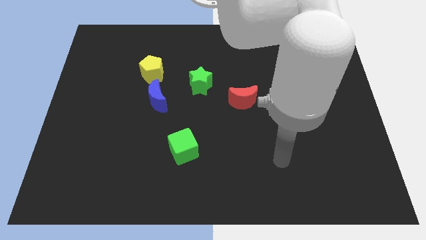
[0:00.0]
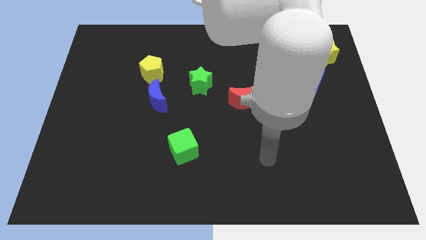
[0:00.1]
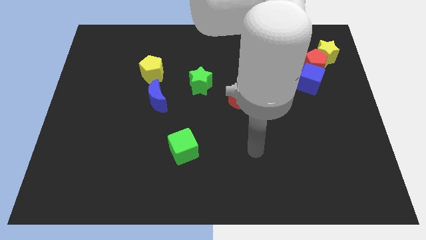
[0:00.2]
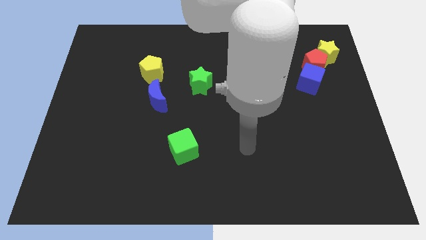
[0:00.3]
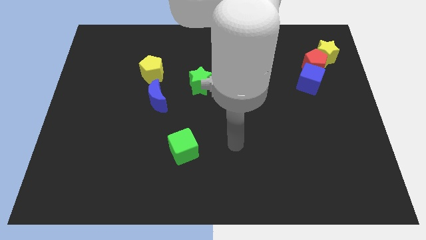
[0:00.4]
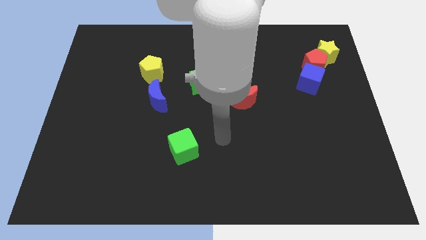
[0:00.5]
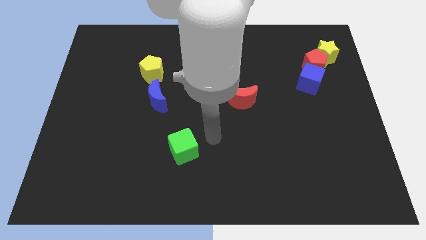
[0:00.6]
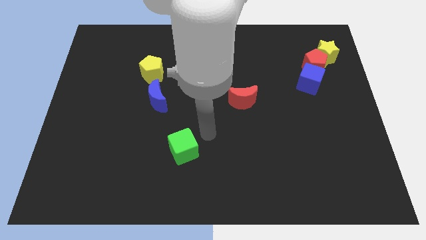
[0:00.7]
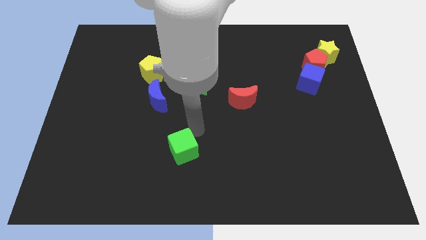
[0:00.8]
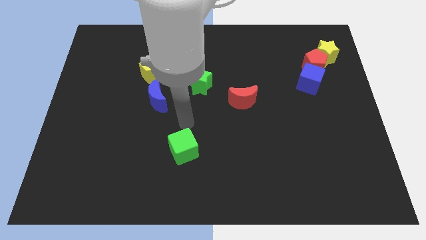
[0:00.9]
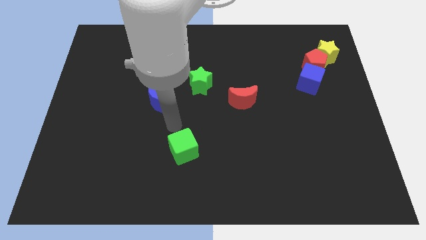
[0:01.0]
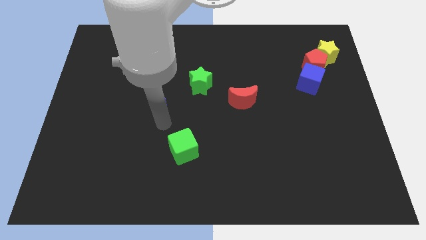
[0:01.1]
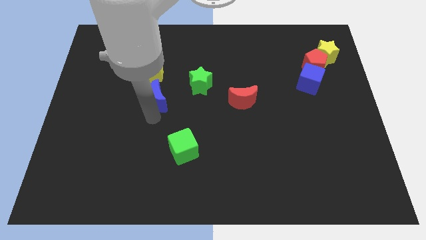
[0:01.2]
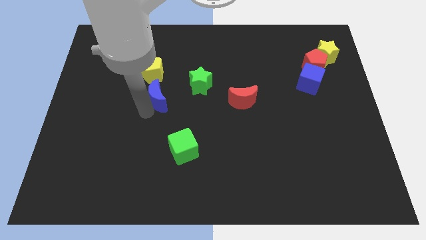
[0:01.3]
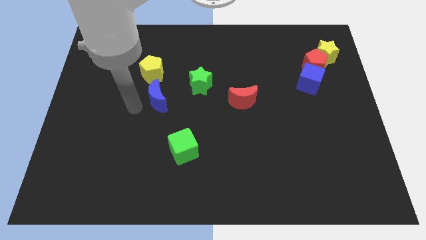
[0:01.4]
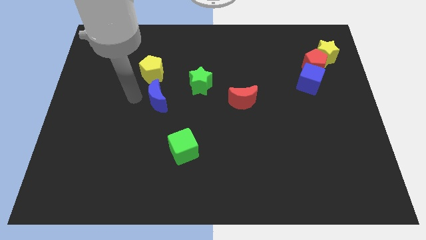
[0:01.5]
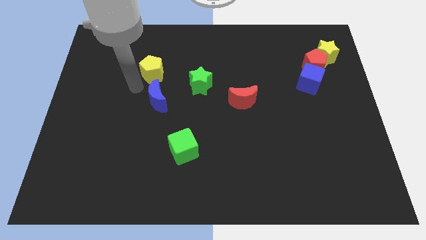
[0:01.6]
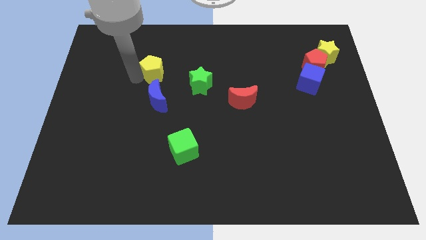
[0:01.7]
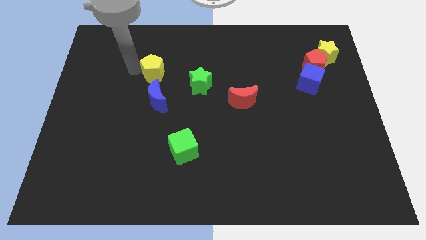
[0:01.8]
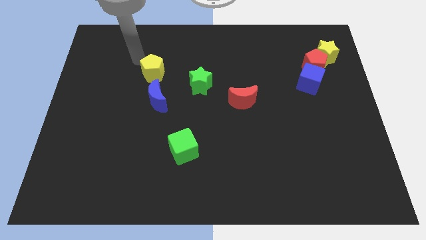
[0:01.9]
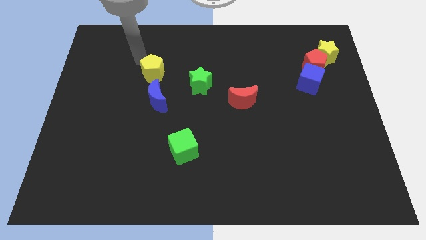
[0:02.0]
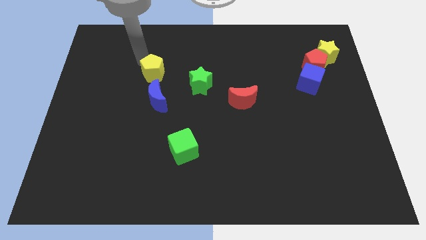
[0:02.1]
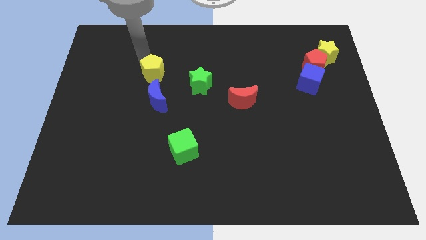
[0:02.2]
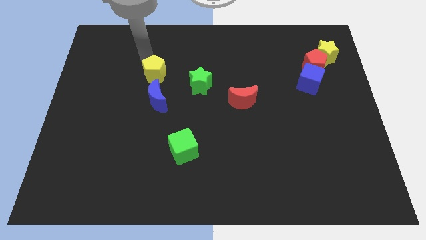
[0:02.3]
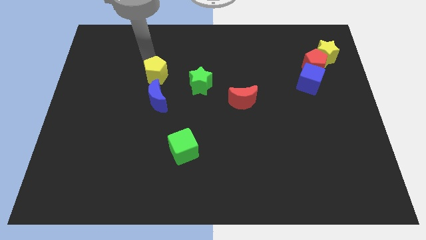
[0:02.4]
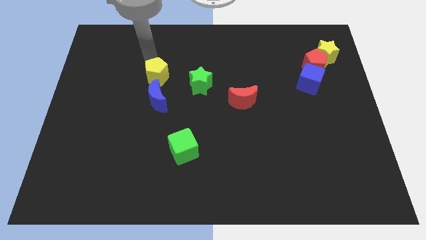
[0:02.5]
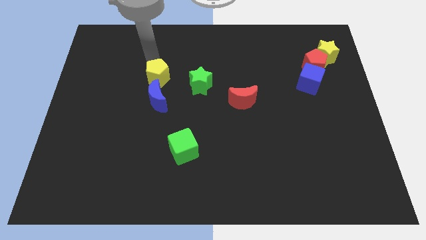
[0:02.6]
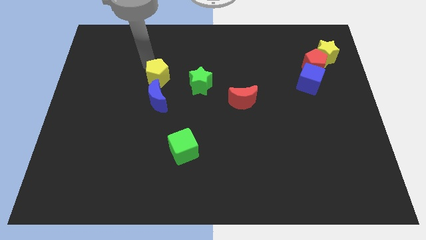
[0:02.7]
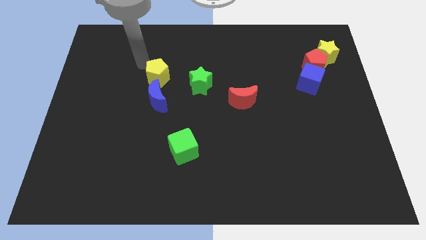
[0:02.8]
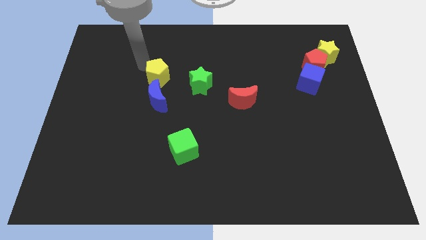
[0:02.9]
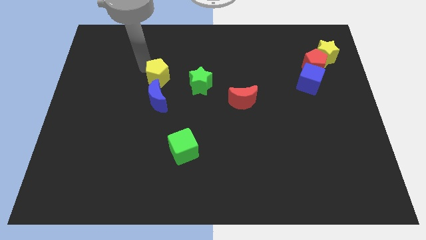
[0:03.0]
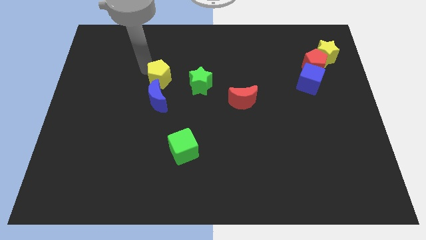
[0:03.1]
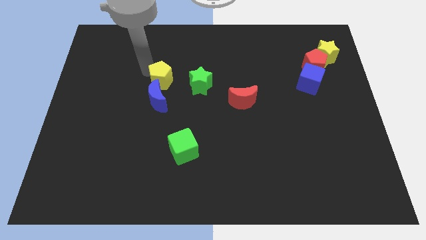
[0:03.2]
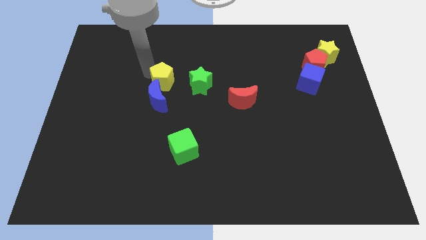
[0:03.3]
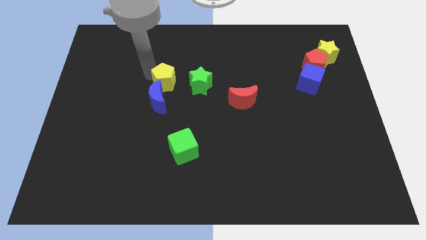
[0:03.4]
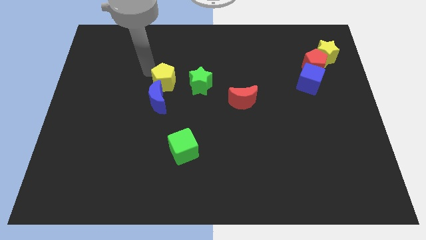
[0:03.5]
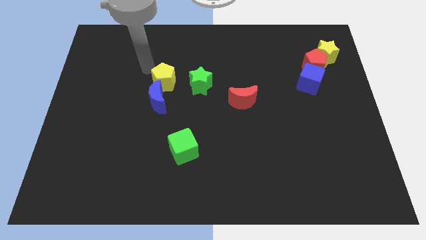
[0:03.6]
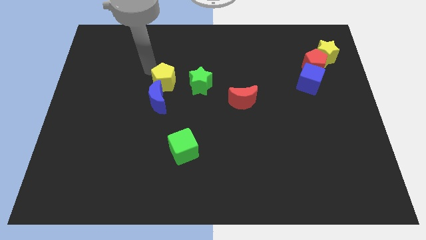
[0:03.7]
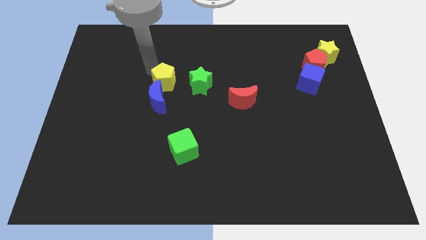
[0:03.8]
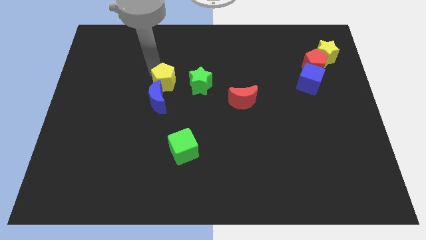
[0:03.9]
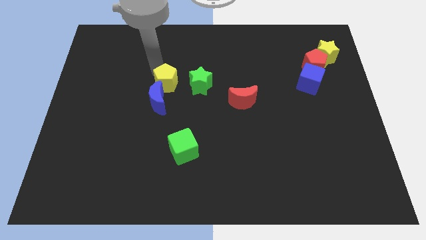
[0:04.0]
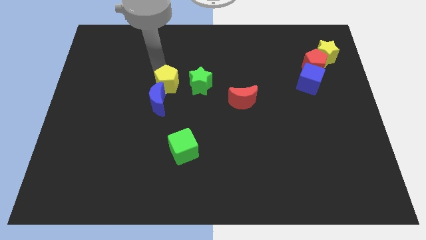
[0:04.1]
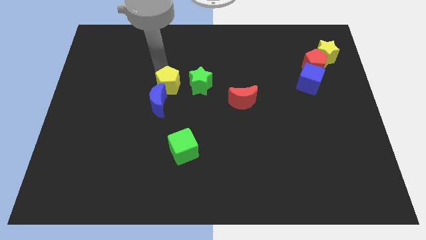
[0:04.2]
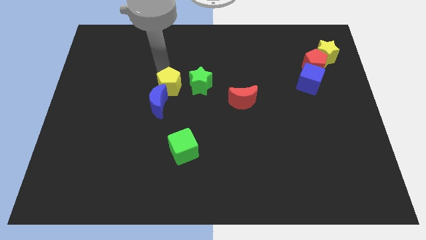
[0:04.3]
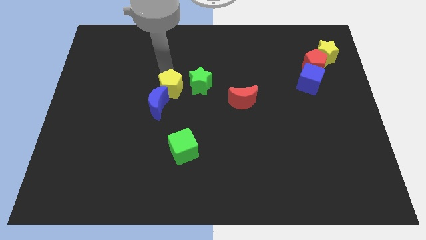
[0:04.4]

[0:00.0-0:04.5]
move the yellow pentagon downwards and then right a little

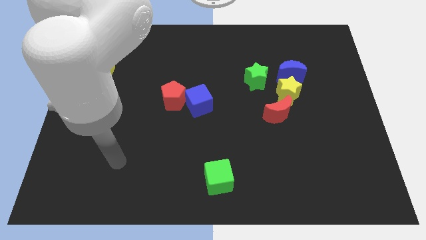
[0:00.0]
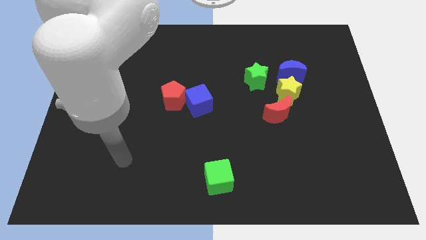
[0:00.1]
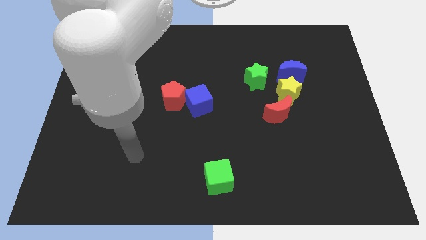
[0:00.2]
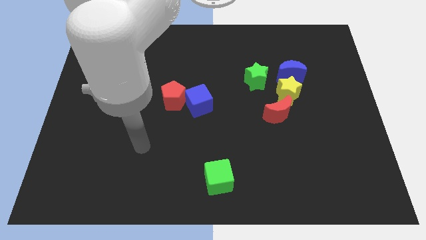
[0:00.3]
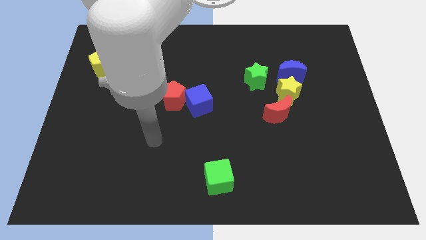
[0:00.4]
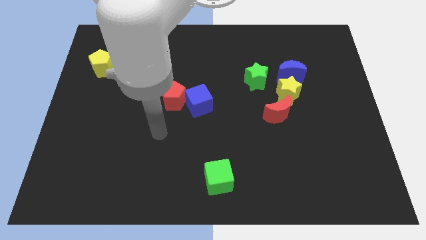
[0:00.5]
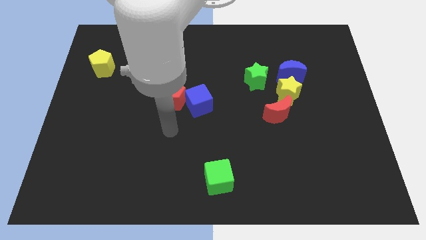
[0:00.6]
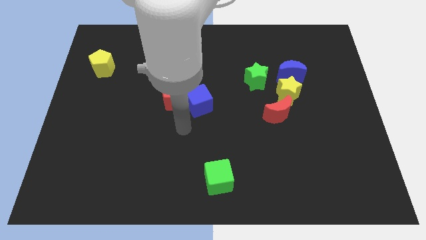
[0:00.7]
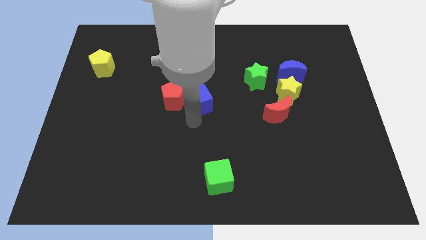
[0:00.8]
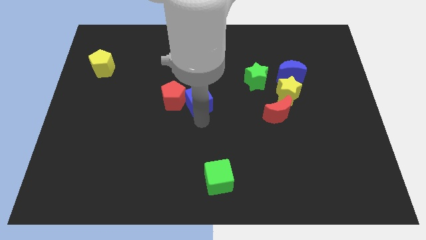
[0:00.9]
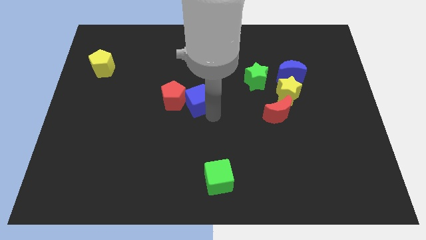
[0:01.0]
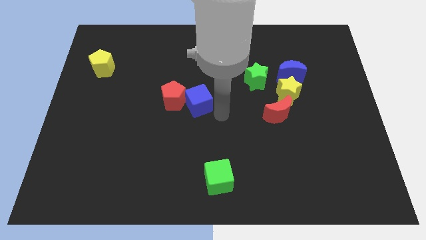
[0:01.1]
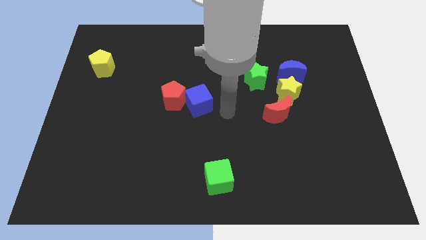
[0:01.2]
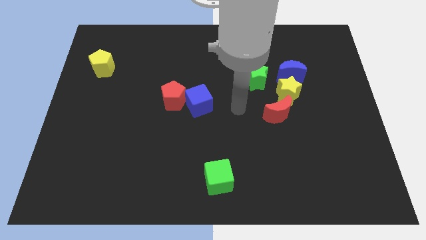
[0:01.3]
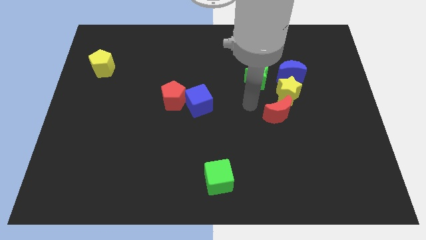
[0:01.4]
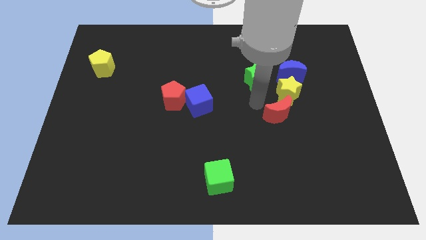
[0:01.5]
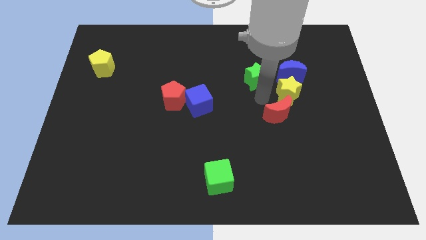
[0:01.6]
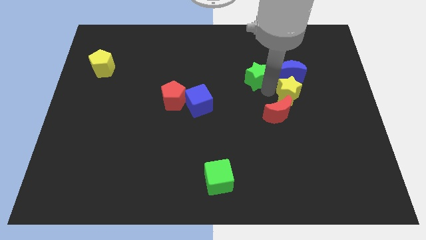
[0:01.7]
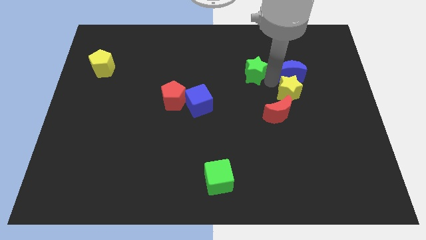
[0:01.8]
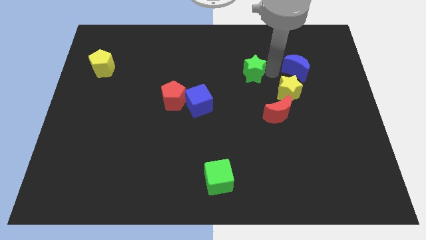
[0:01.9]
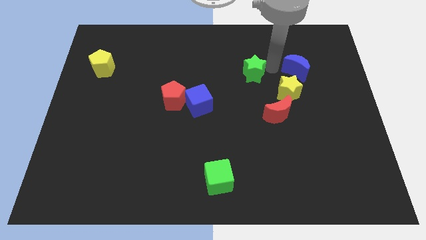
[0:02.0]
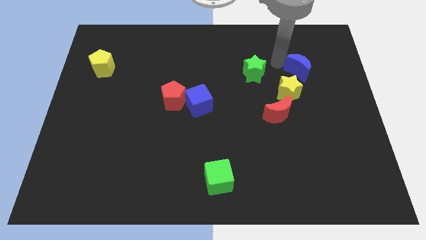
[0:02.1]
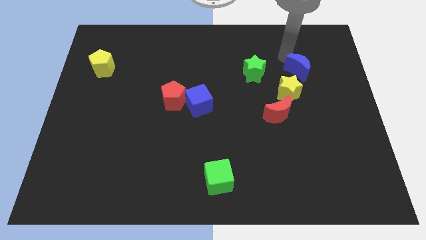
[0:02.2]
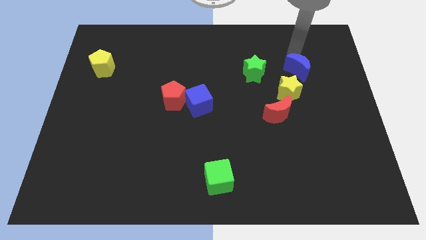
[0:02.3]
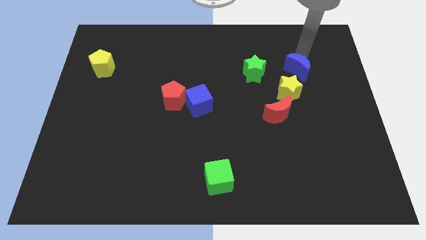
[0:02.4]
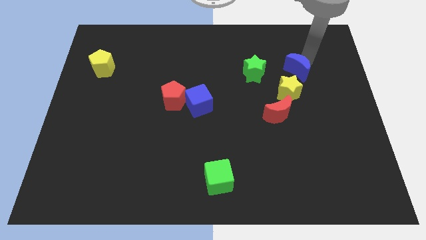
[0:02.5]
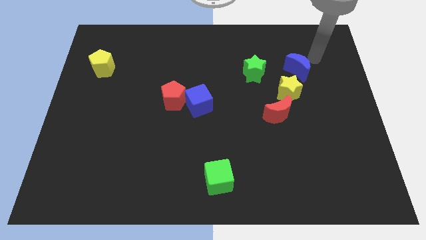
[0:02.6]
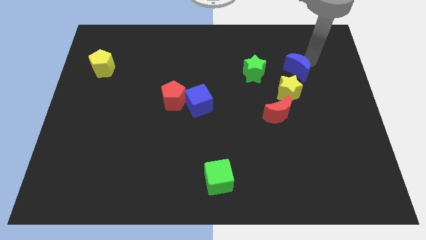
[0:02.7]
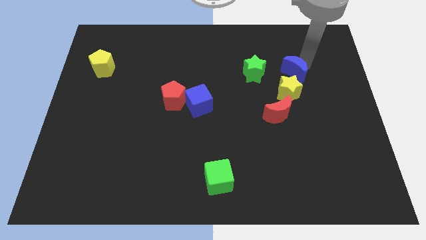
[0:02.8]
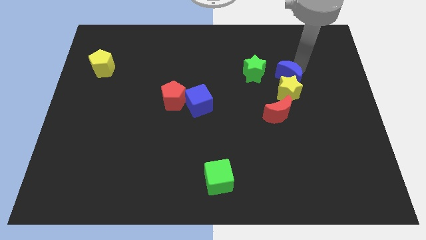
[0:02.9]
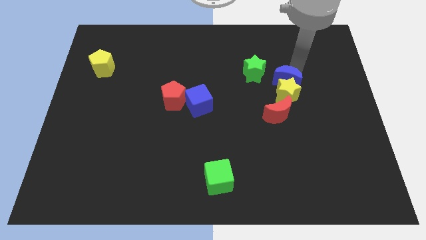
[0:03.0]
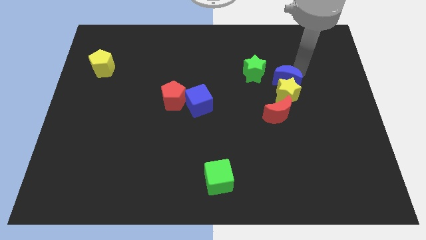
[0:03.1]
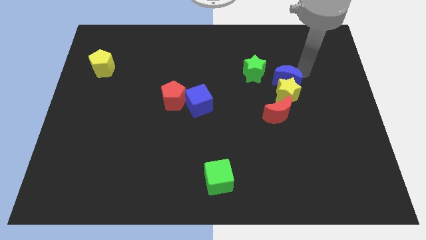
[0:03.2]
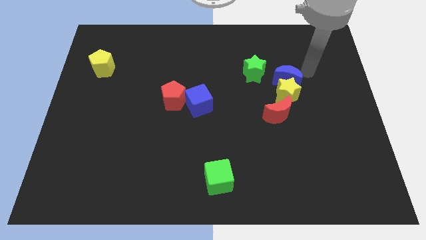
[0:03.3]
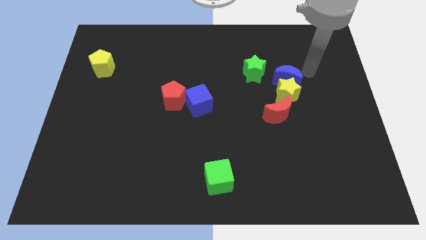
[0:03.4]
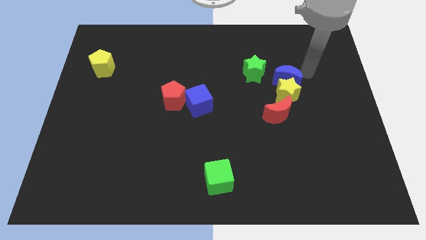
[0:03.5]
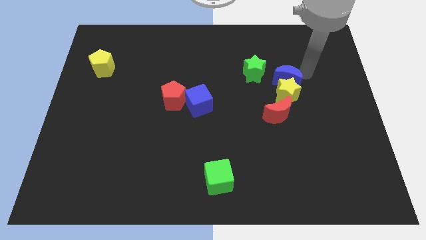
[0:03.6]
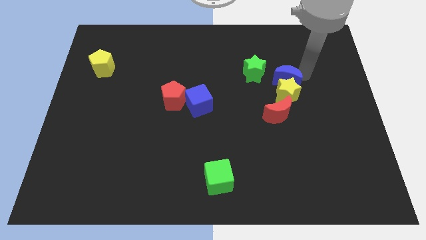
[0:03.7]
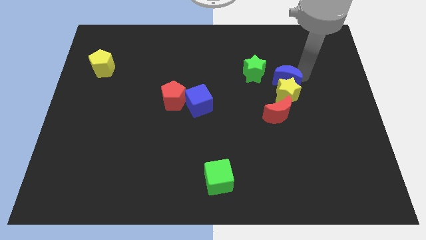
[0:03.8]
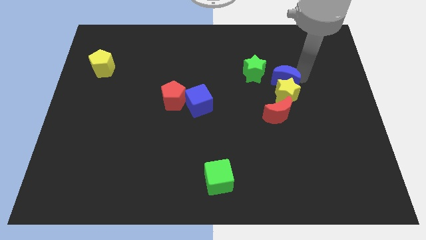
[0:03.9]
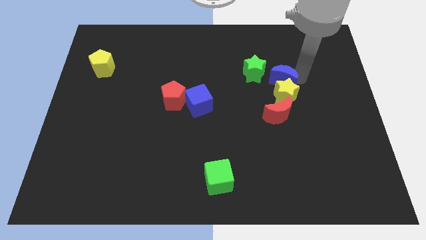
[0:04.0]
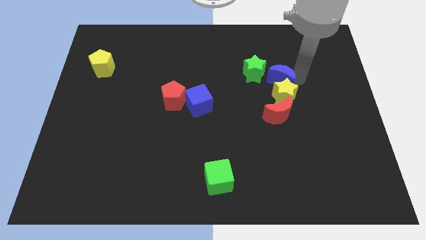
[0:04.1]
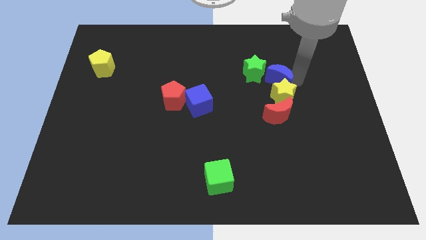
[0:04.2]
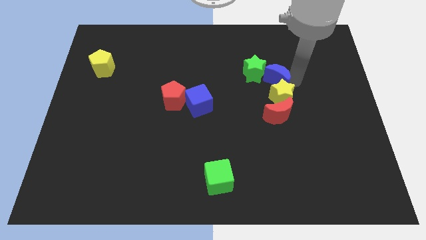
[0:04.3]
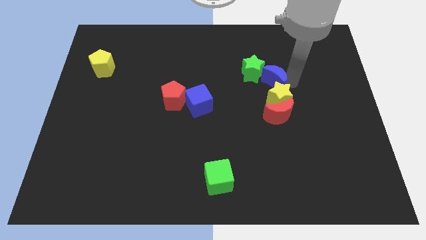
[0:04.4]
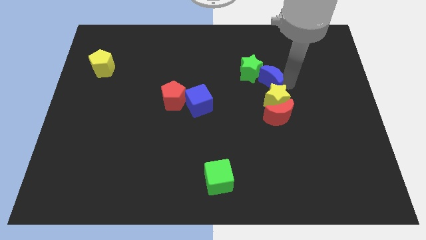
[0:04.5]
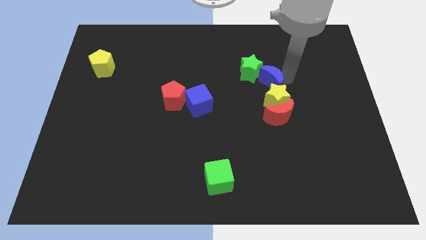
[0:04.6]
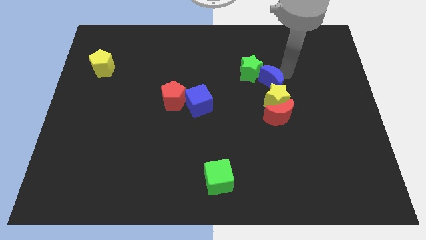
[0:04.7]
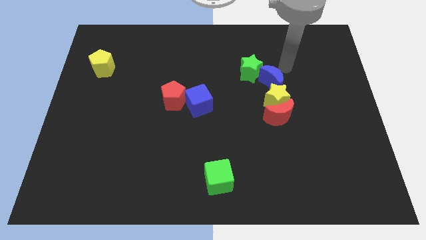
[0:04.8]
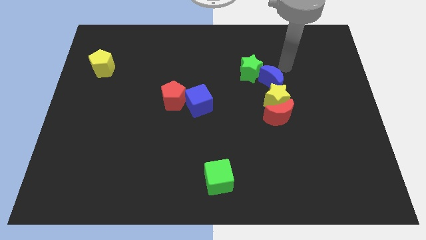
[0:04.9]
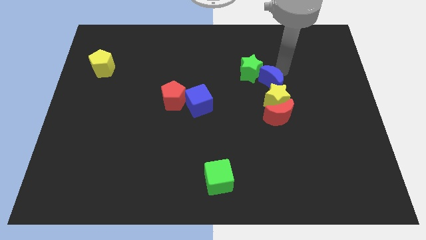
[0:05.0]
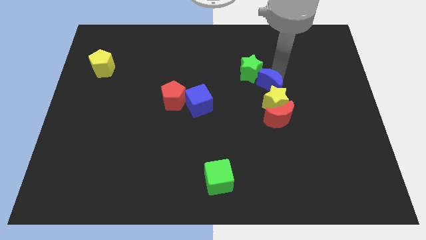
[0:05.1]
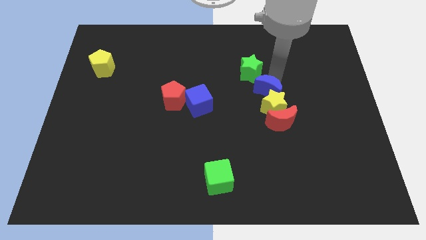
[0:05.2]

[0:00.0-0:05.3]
slide the blue moon down and left somewhat
